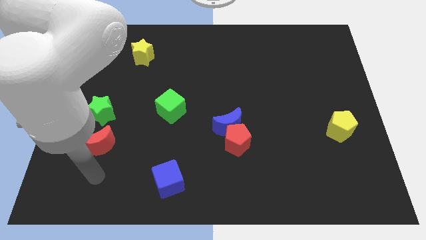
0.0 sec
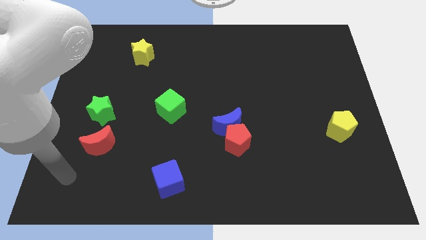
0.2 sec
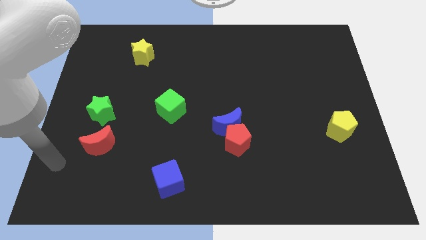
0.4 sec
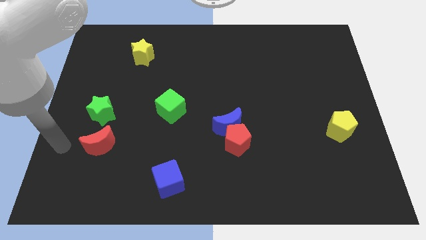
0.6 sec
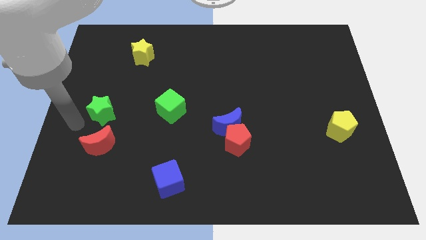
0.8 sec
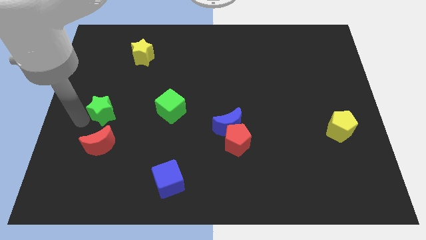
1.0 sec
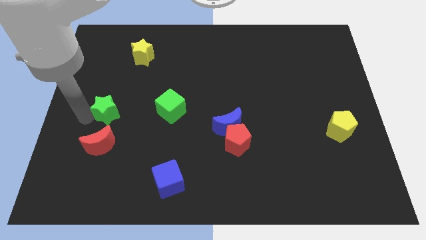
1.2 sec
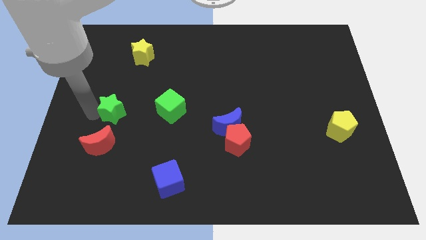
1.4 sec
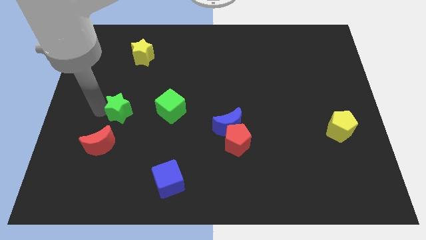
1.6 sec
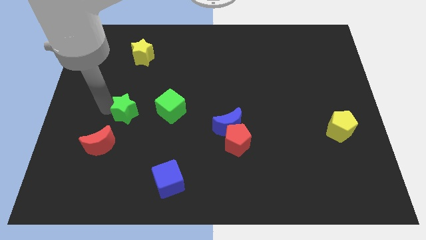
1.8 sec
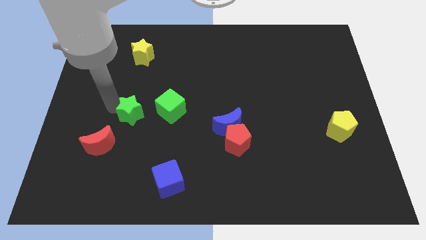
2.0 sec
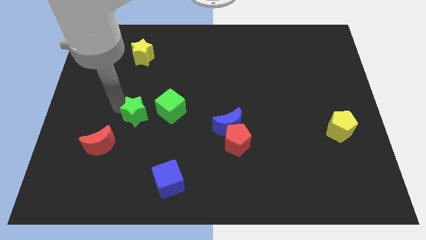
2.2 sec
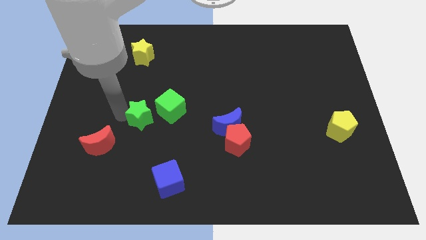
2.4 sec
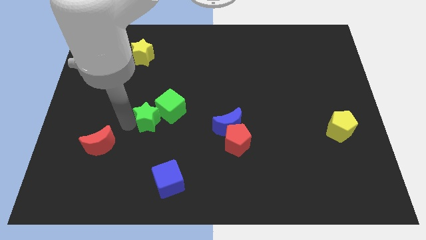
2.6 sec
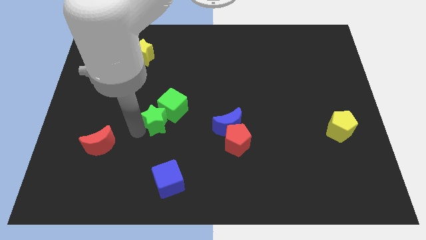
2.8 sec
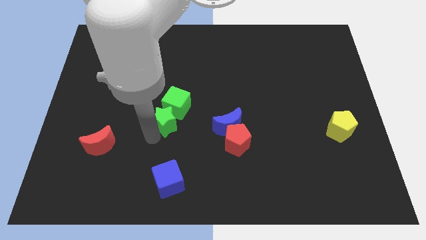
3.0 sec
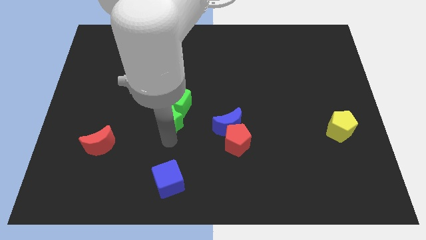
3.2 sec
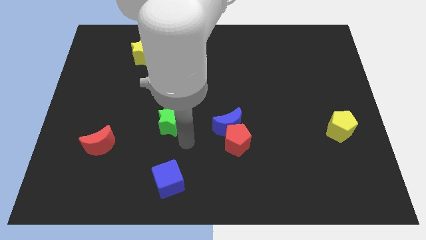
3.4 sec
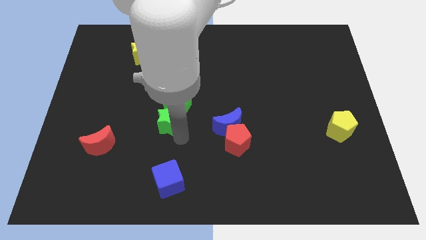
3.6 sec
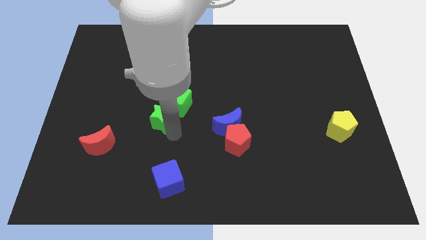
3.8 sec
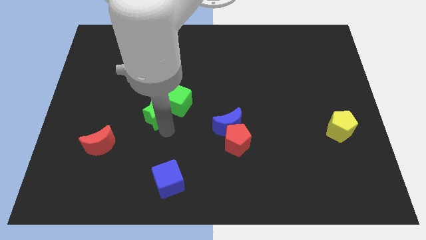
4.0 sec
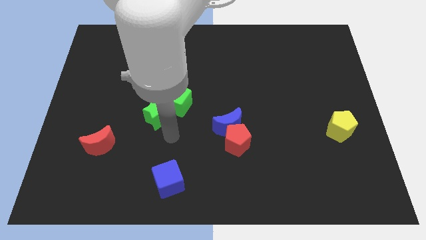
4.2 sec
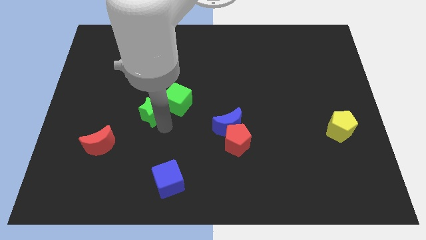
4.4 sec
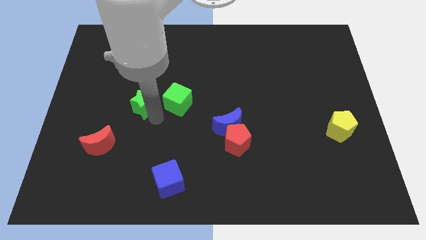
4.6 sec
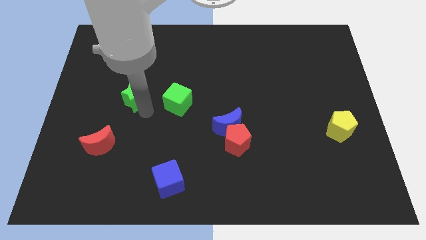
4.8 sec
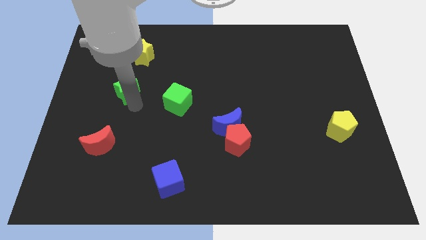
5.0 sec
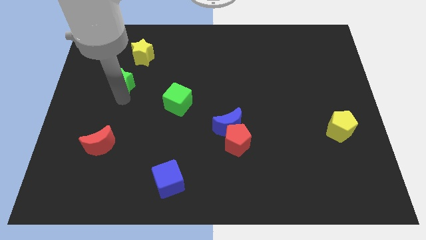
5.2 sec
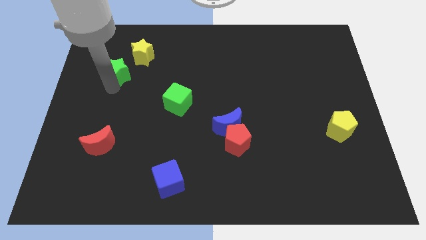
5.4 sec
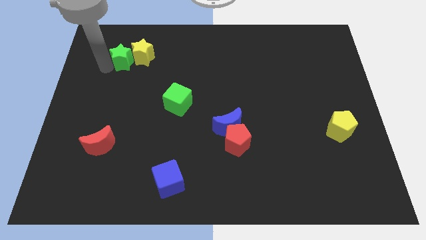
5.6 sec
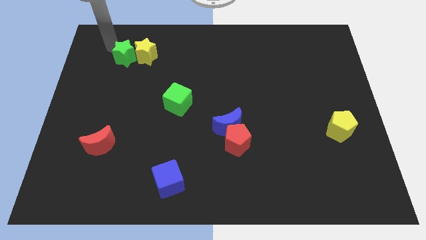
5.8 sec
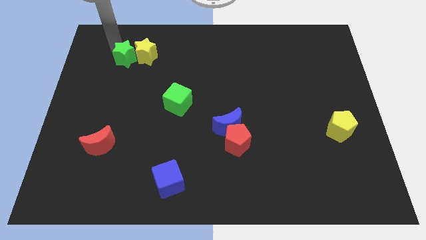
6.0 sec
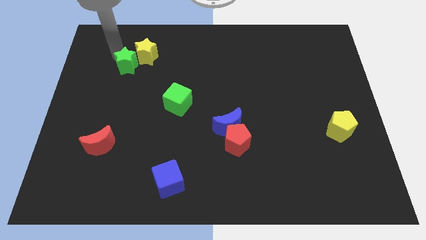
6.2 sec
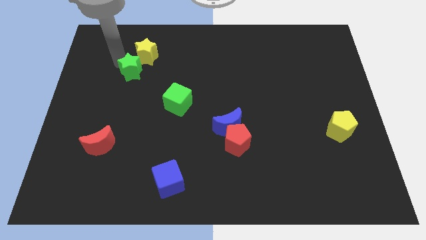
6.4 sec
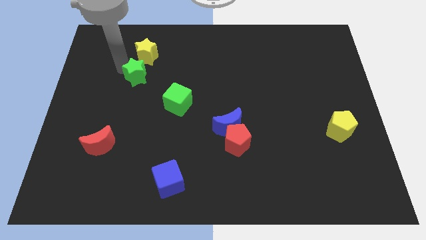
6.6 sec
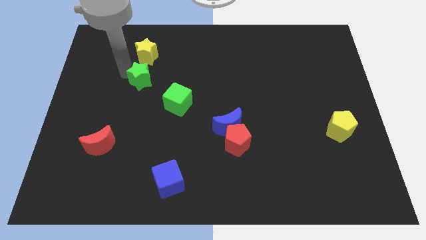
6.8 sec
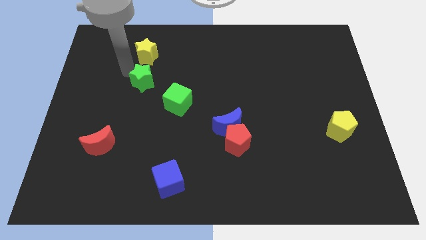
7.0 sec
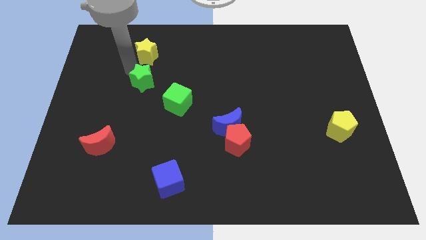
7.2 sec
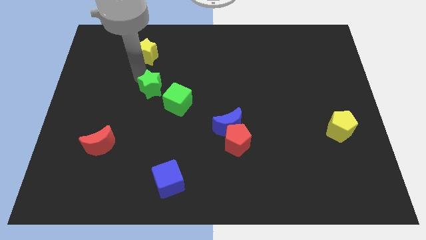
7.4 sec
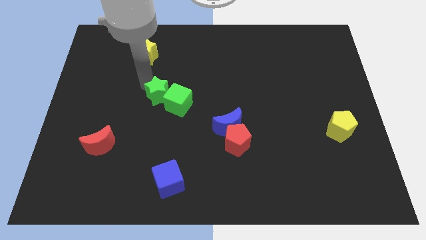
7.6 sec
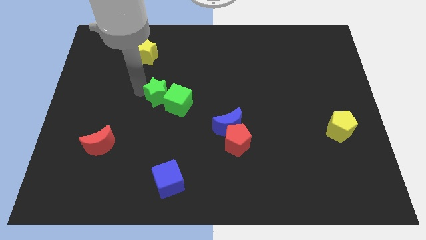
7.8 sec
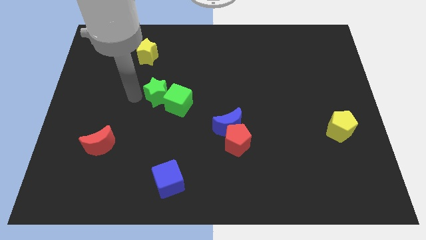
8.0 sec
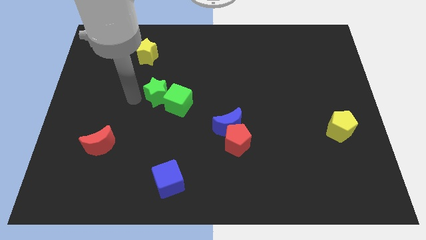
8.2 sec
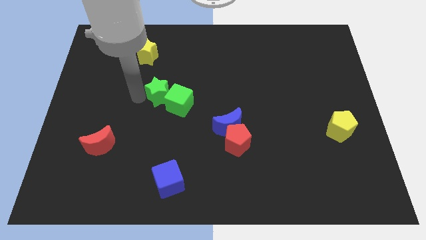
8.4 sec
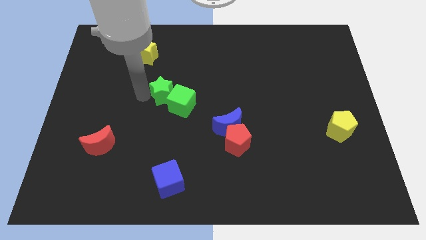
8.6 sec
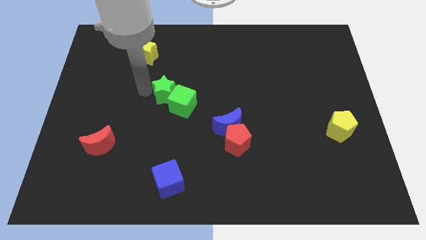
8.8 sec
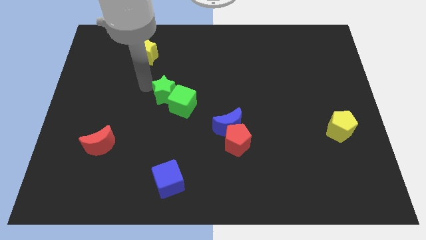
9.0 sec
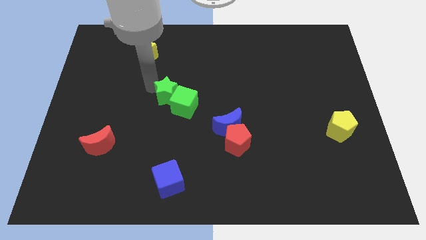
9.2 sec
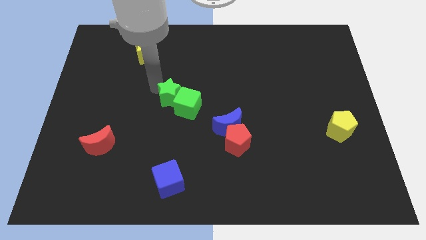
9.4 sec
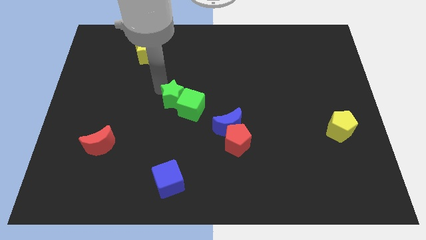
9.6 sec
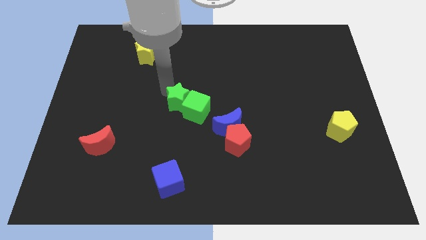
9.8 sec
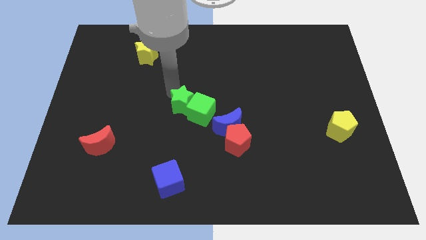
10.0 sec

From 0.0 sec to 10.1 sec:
push the green star to the top left side of the blue moon

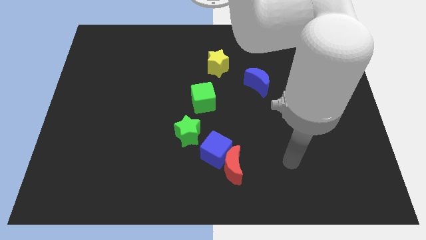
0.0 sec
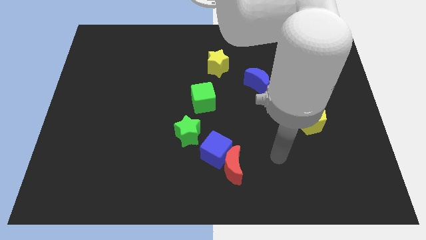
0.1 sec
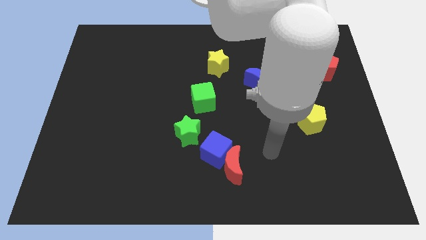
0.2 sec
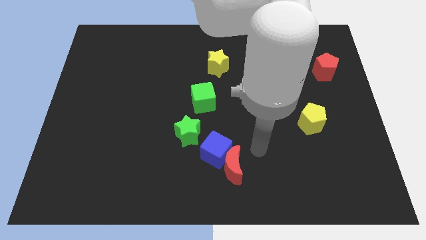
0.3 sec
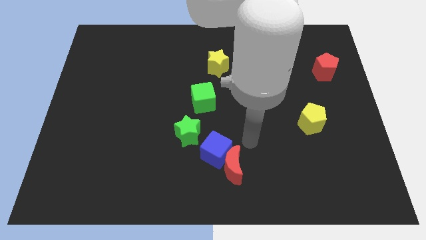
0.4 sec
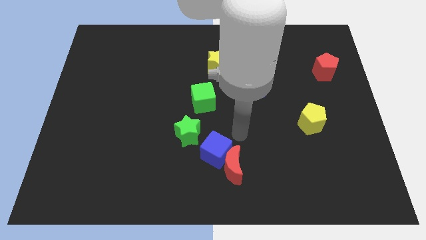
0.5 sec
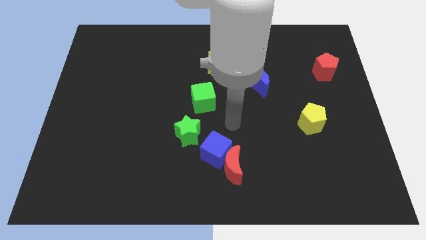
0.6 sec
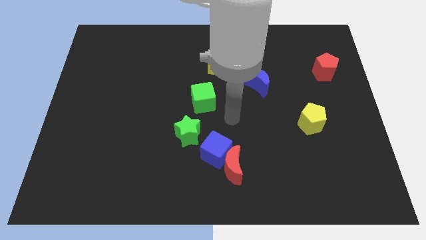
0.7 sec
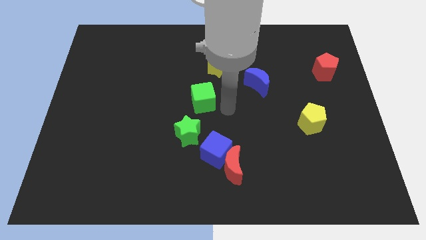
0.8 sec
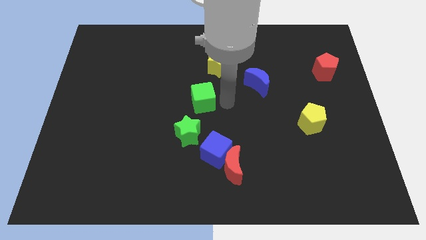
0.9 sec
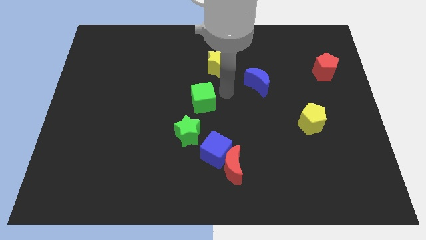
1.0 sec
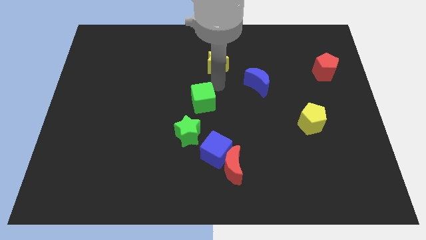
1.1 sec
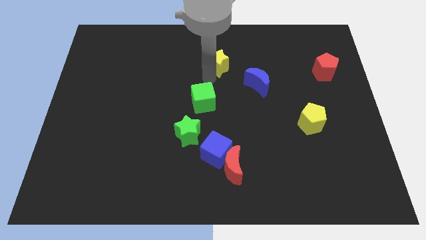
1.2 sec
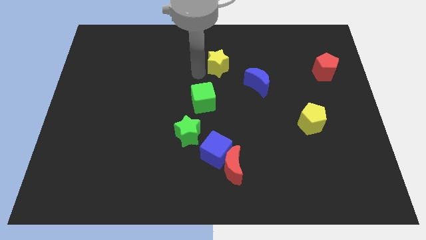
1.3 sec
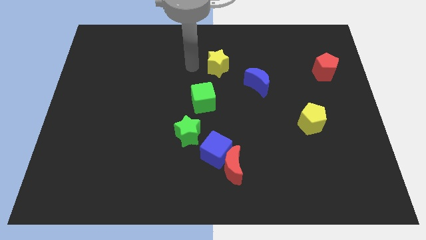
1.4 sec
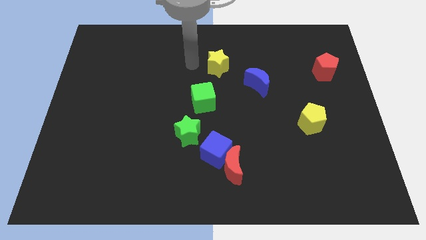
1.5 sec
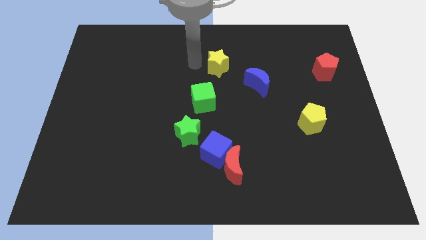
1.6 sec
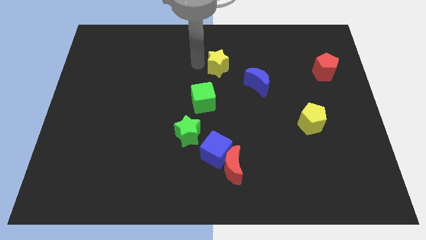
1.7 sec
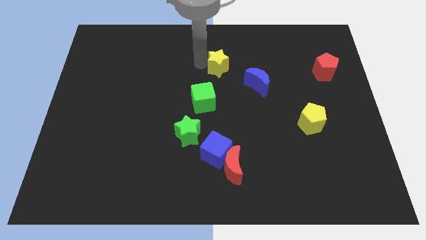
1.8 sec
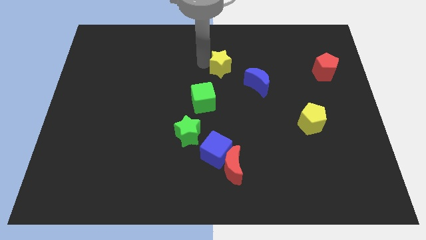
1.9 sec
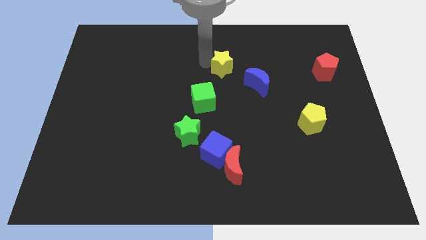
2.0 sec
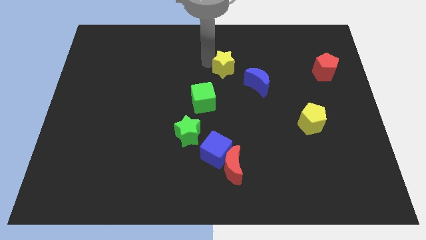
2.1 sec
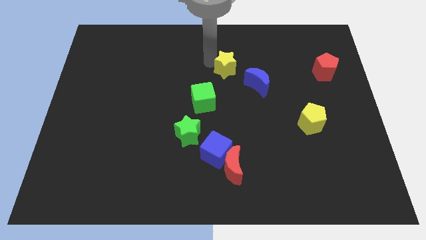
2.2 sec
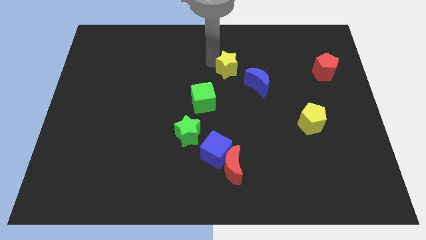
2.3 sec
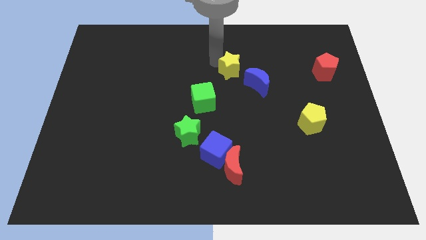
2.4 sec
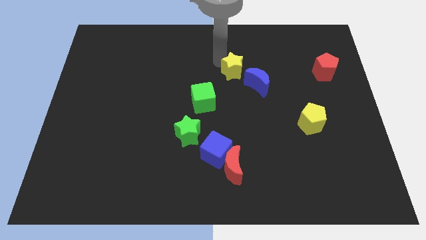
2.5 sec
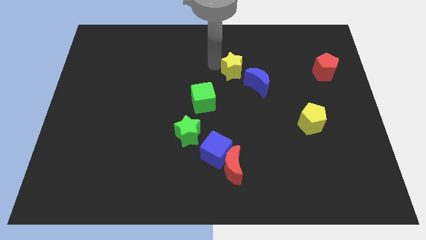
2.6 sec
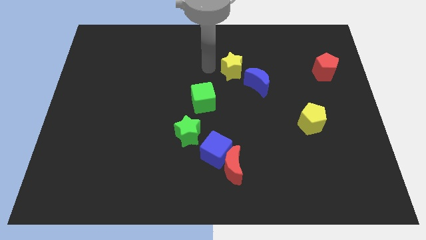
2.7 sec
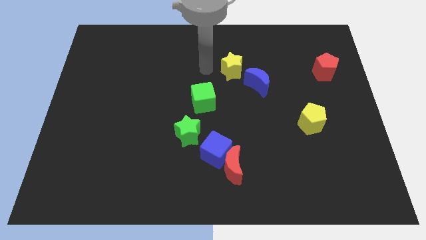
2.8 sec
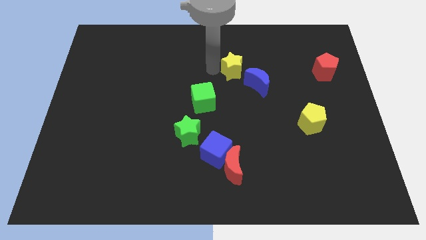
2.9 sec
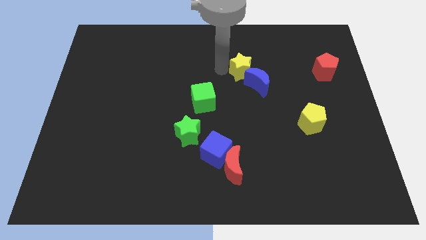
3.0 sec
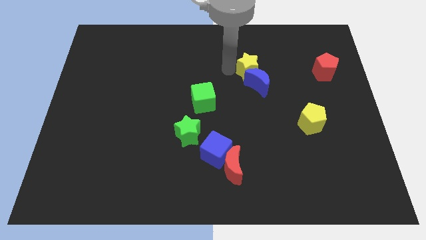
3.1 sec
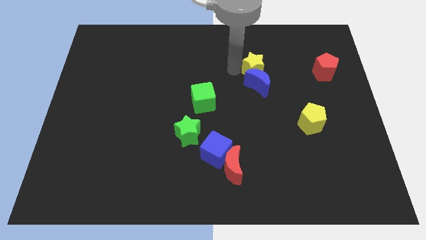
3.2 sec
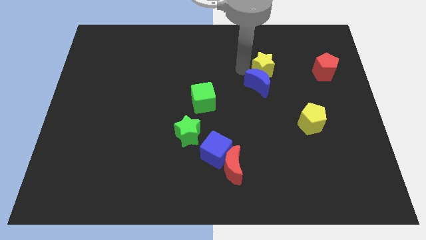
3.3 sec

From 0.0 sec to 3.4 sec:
move the yellow star just left of the red pentagon
